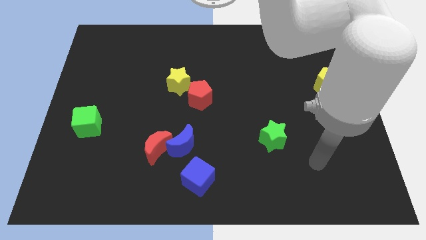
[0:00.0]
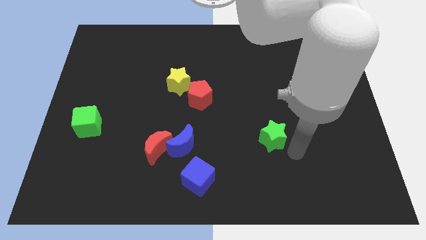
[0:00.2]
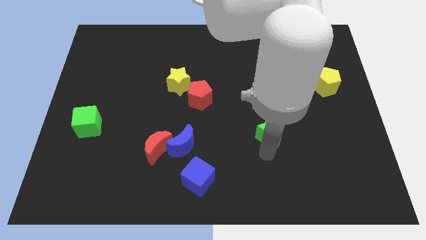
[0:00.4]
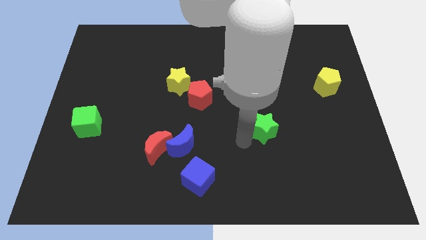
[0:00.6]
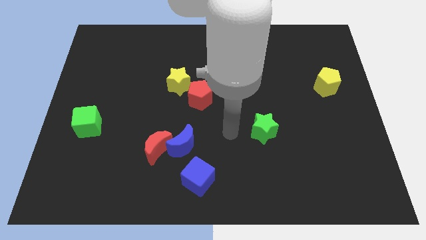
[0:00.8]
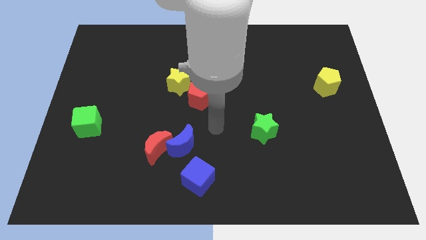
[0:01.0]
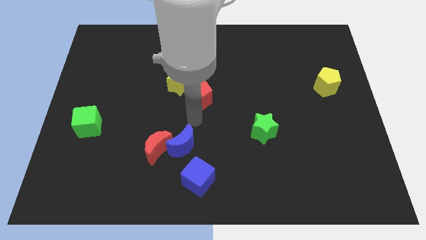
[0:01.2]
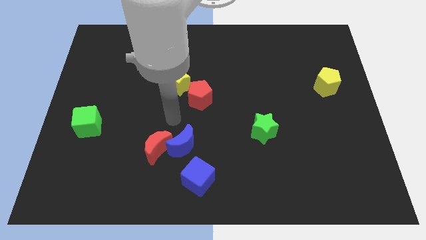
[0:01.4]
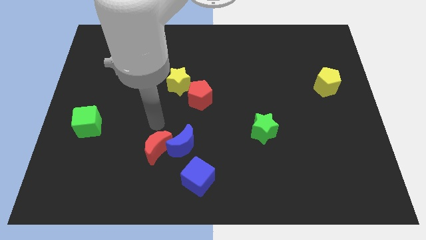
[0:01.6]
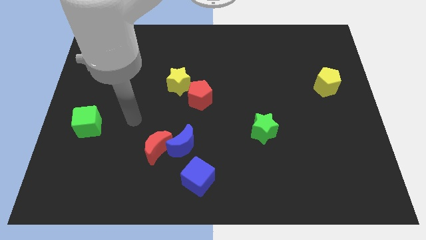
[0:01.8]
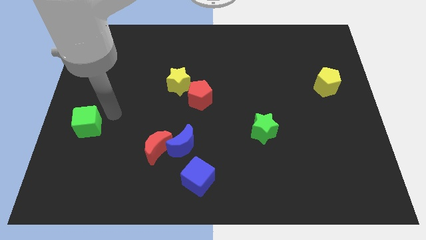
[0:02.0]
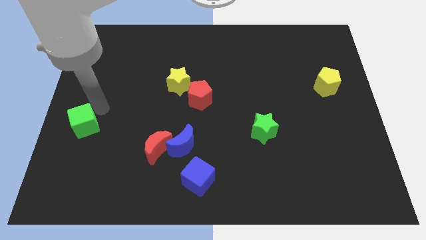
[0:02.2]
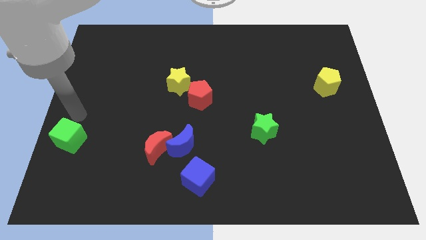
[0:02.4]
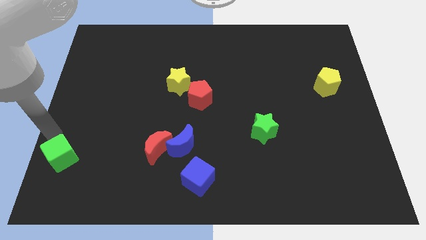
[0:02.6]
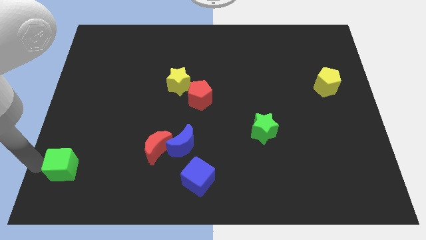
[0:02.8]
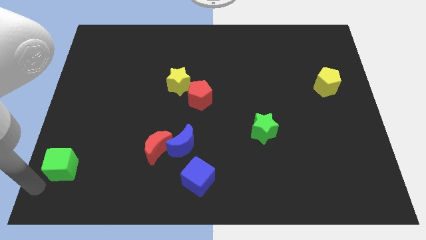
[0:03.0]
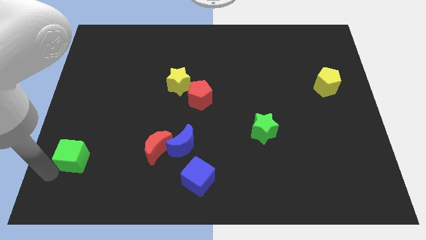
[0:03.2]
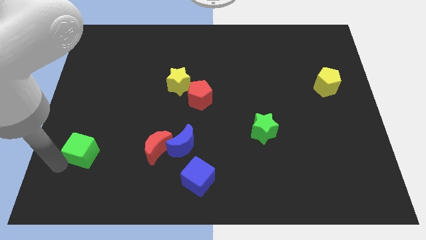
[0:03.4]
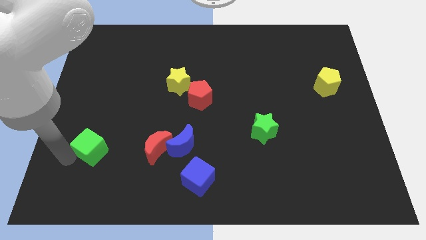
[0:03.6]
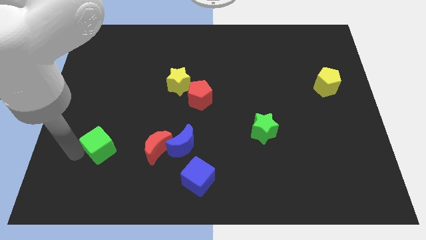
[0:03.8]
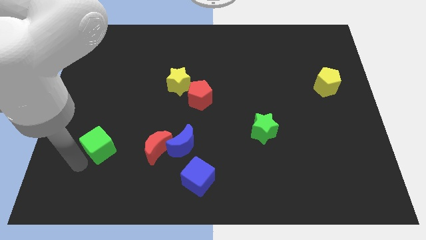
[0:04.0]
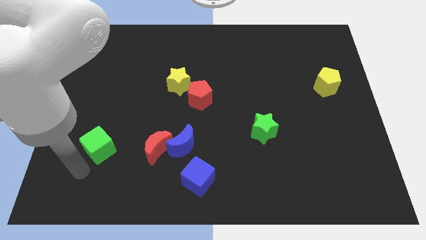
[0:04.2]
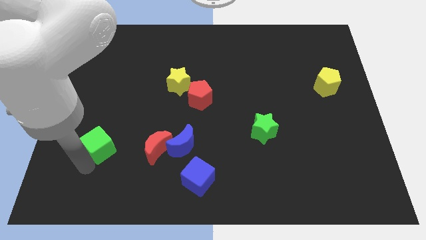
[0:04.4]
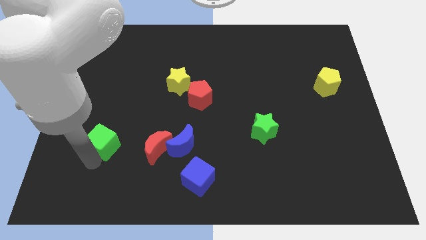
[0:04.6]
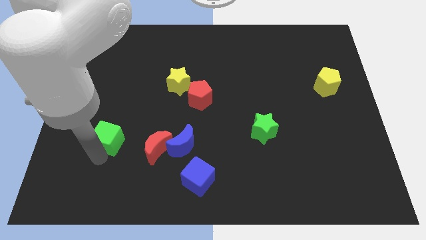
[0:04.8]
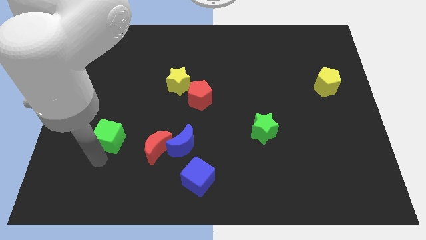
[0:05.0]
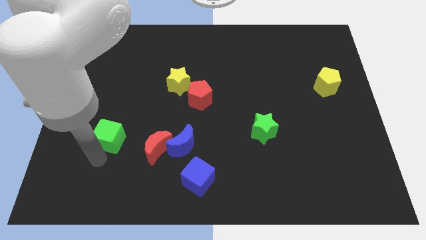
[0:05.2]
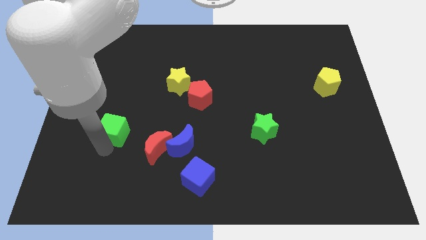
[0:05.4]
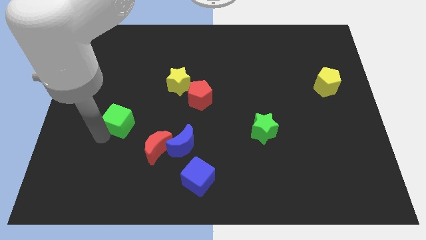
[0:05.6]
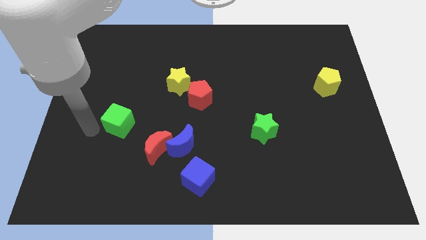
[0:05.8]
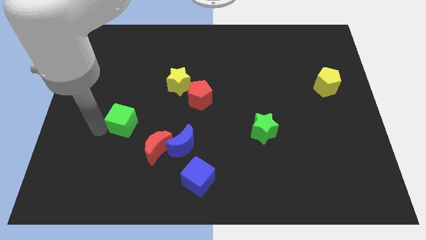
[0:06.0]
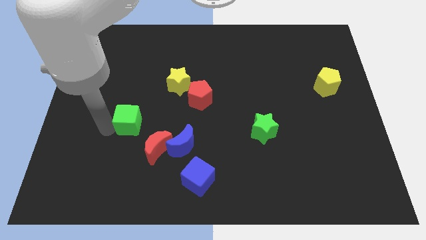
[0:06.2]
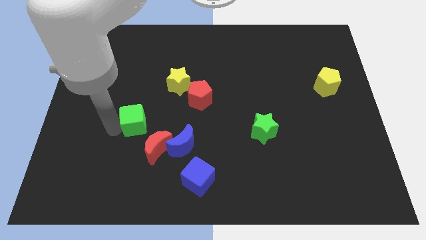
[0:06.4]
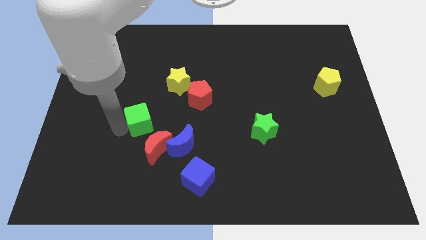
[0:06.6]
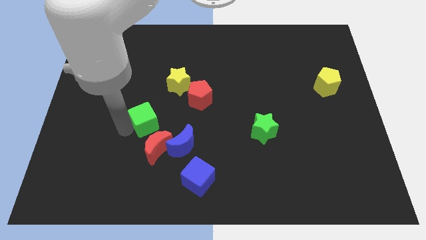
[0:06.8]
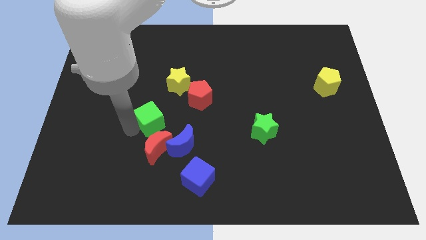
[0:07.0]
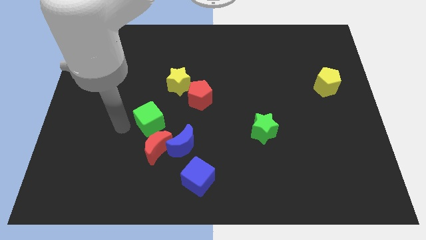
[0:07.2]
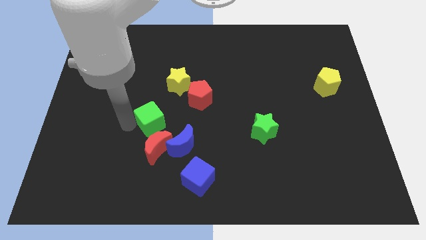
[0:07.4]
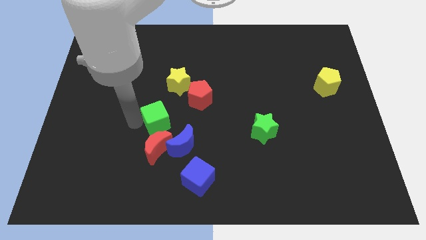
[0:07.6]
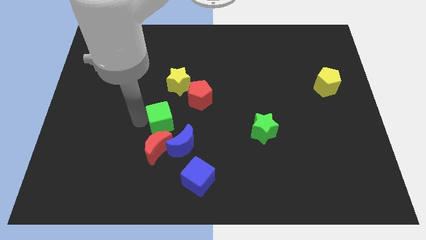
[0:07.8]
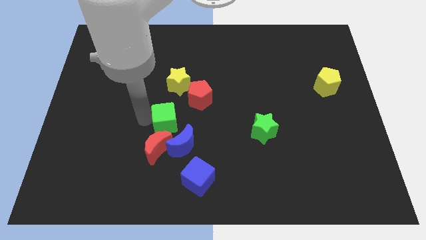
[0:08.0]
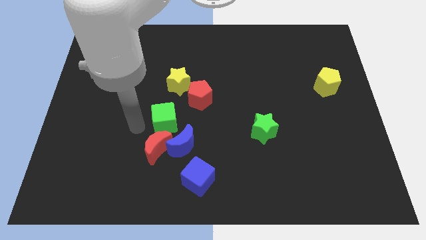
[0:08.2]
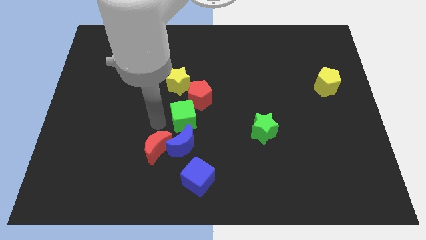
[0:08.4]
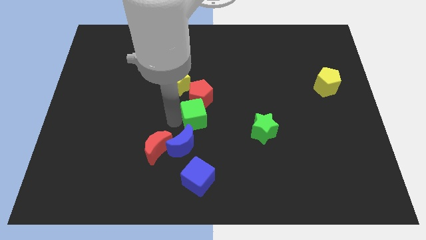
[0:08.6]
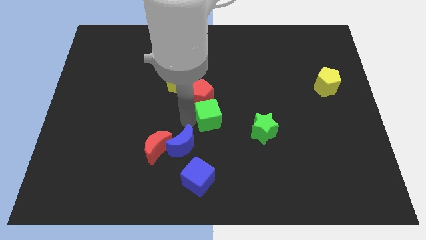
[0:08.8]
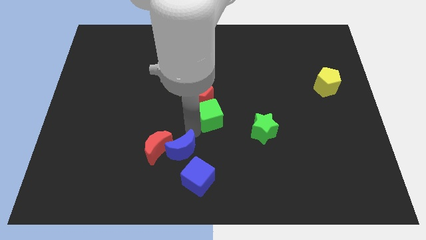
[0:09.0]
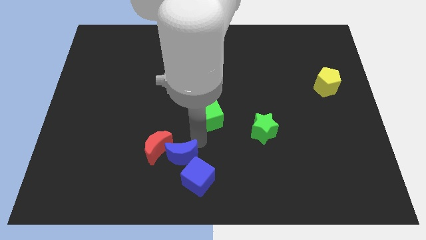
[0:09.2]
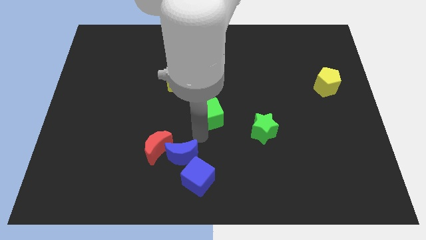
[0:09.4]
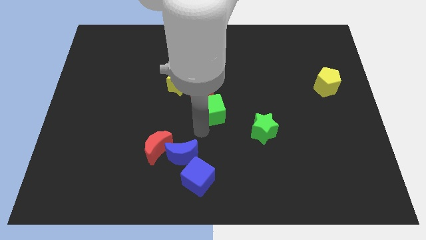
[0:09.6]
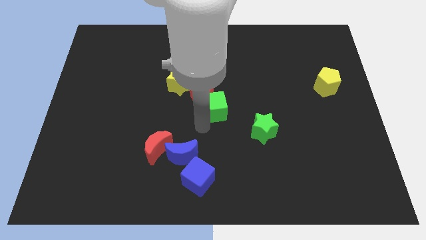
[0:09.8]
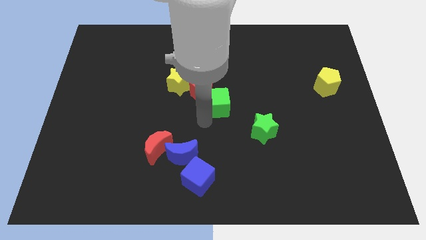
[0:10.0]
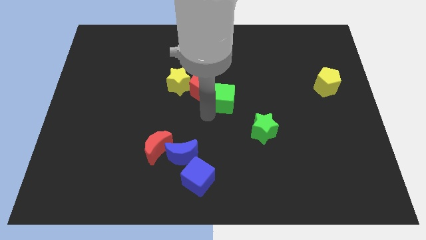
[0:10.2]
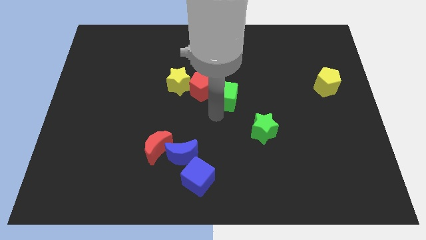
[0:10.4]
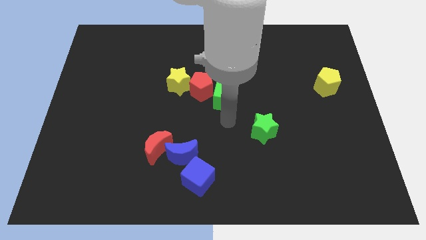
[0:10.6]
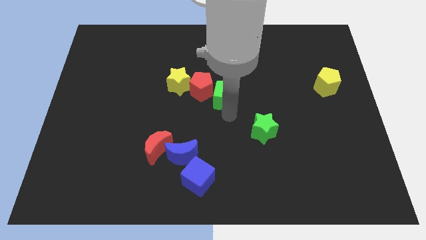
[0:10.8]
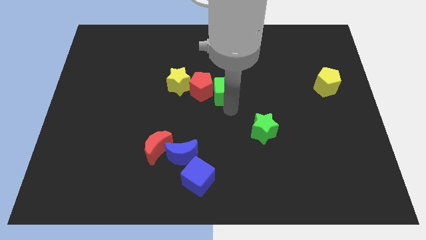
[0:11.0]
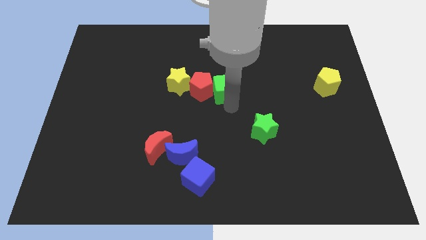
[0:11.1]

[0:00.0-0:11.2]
put the green cube to the top right of the red pentagon

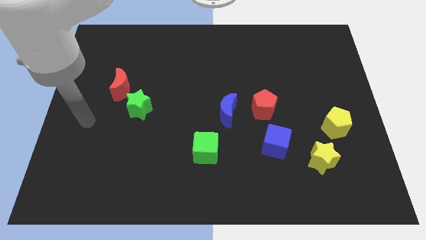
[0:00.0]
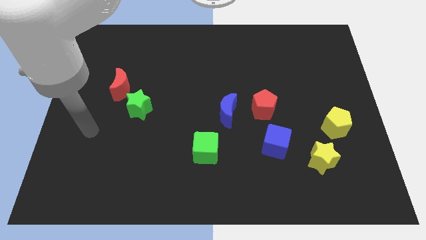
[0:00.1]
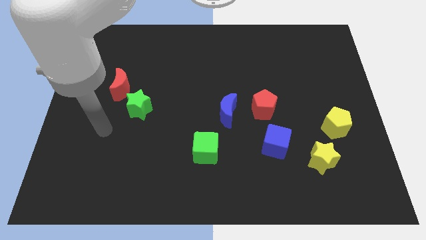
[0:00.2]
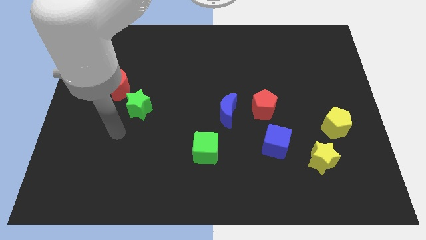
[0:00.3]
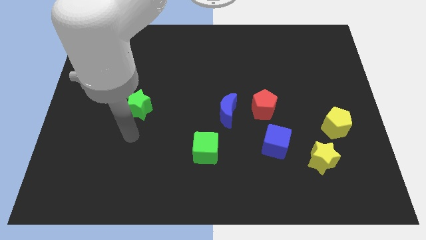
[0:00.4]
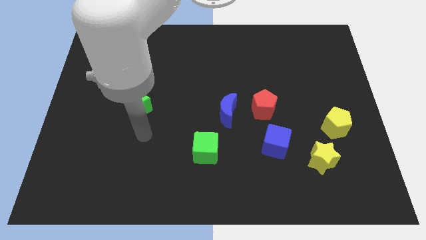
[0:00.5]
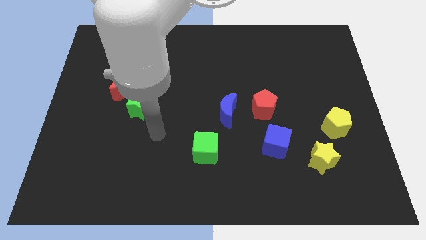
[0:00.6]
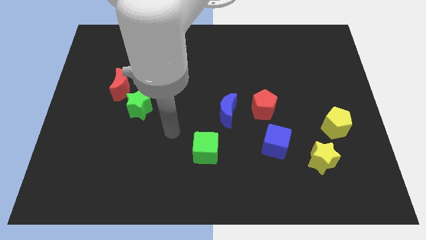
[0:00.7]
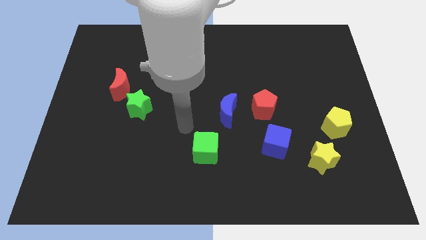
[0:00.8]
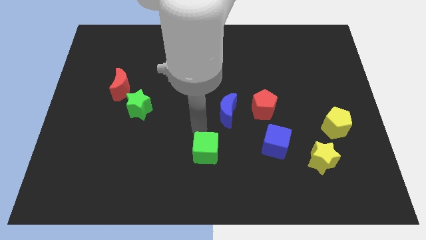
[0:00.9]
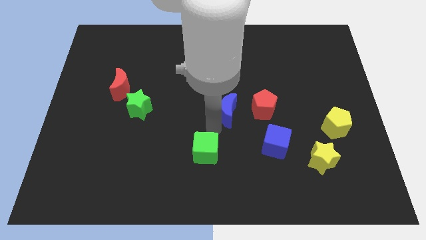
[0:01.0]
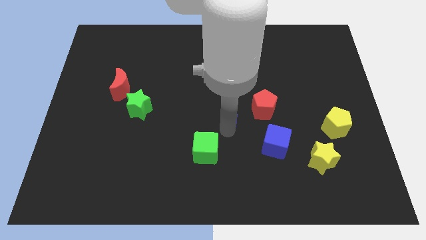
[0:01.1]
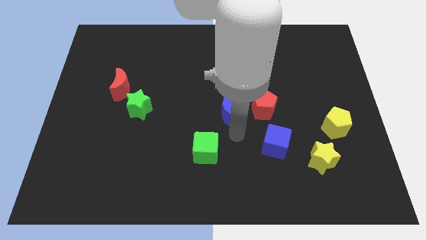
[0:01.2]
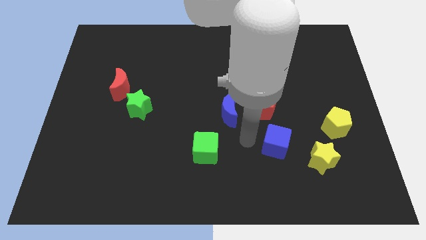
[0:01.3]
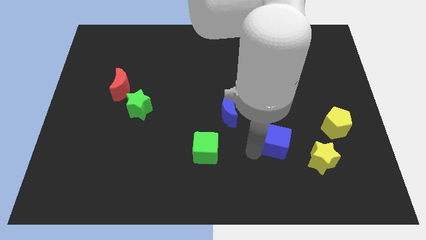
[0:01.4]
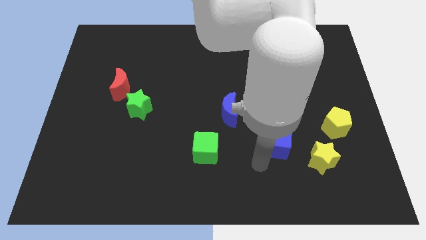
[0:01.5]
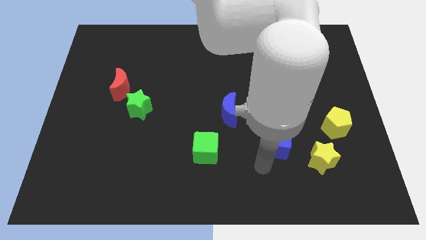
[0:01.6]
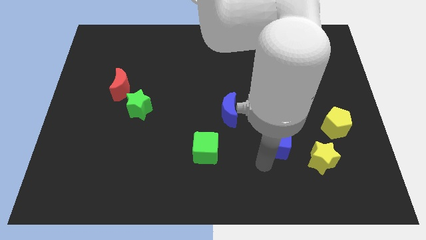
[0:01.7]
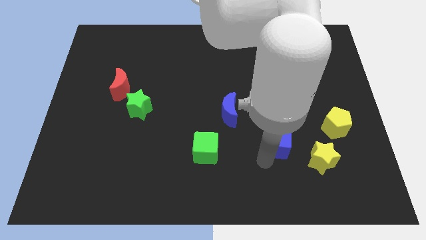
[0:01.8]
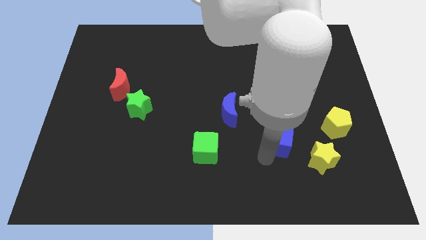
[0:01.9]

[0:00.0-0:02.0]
push the blue cube to the left of the yellow pentagon
